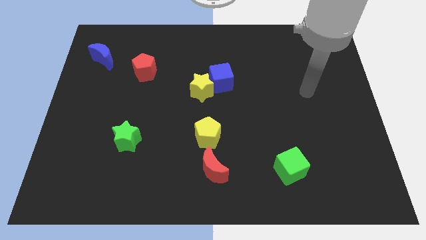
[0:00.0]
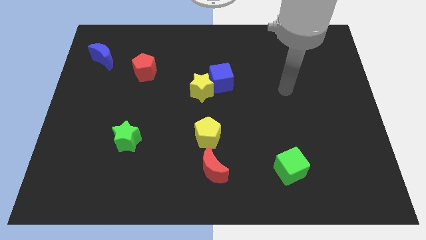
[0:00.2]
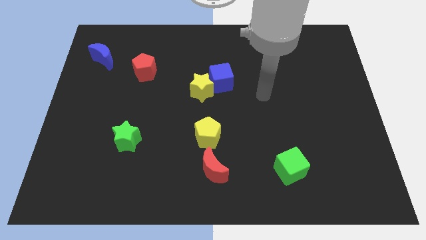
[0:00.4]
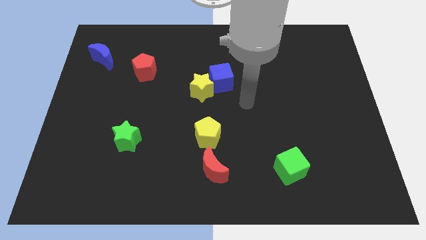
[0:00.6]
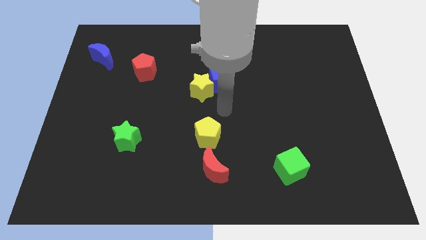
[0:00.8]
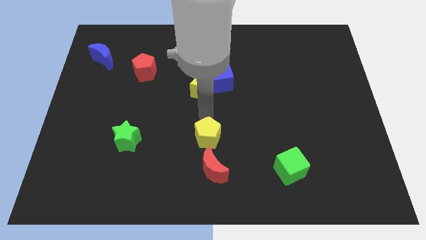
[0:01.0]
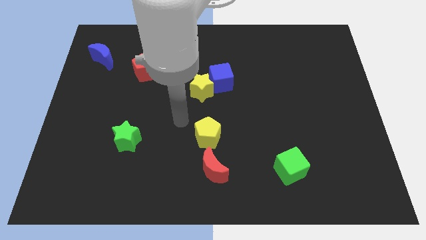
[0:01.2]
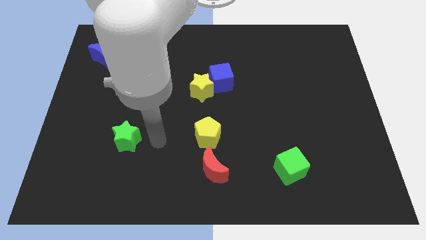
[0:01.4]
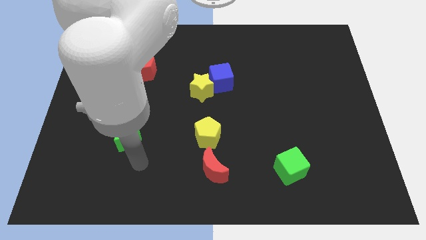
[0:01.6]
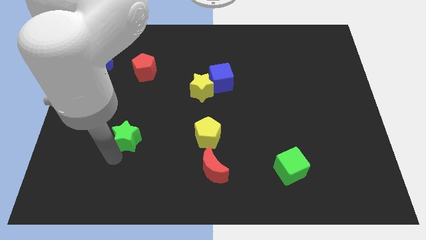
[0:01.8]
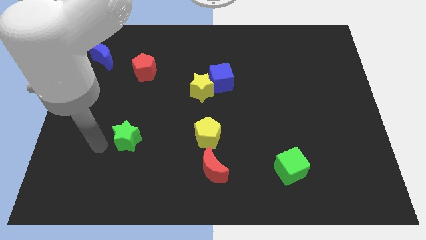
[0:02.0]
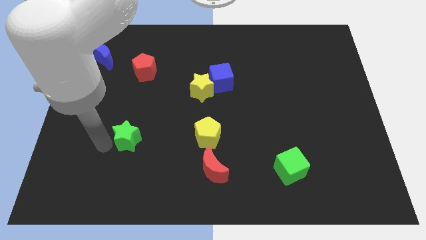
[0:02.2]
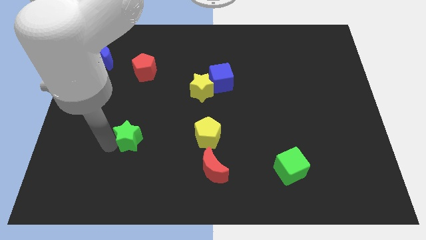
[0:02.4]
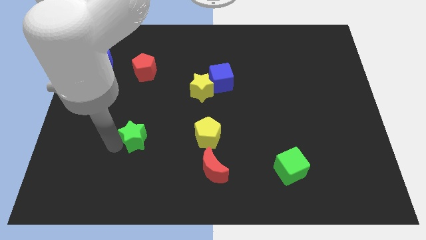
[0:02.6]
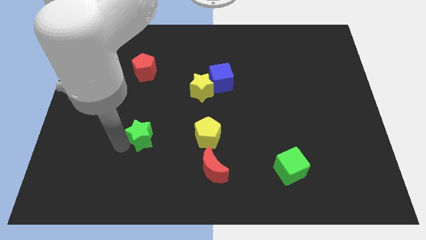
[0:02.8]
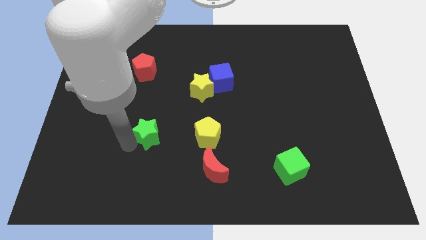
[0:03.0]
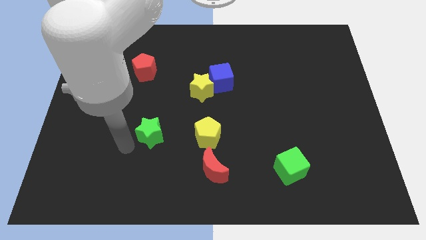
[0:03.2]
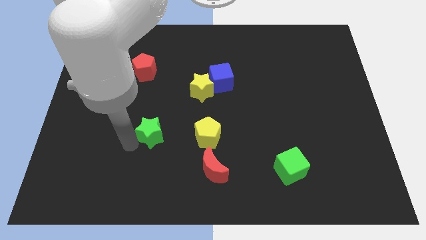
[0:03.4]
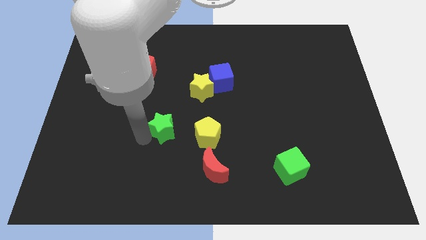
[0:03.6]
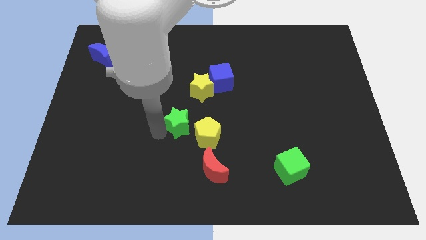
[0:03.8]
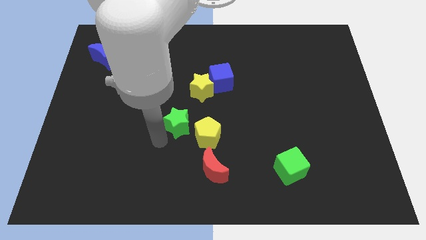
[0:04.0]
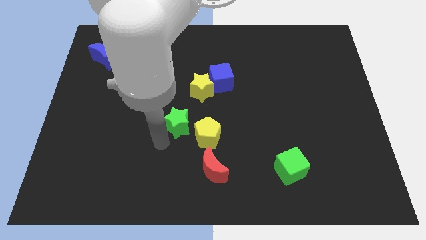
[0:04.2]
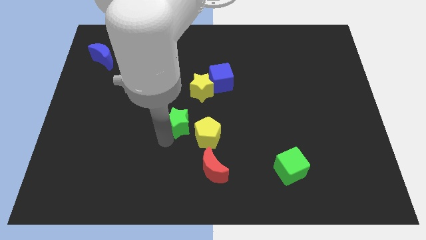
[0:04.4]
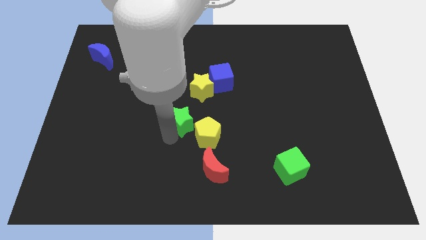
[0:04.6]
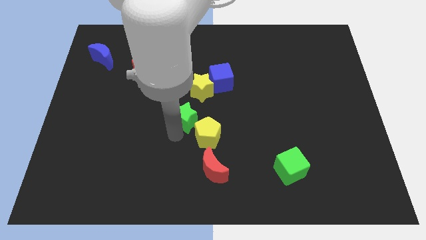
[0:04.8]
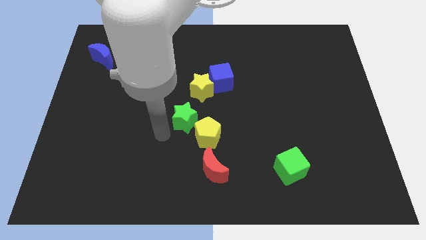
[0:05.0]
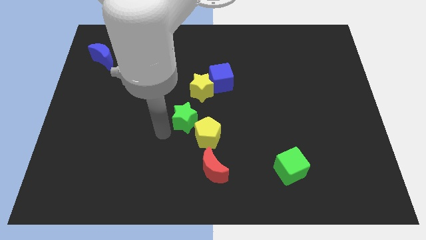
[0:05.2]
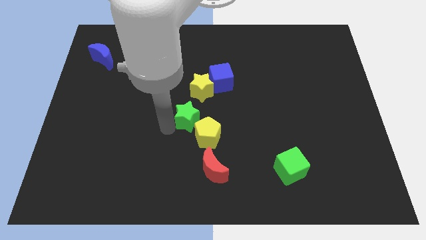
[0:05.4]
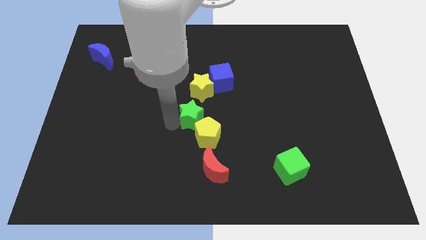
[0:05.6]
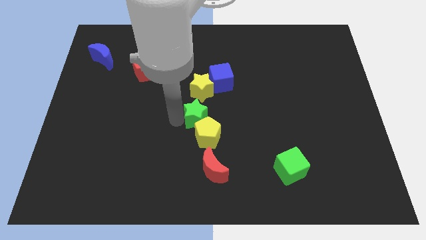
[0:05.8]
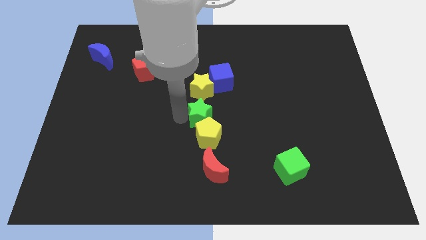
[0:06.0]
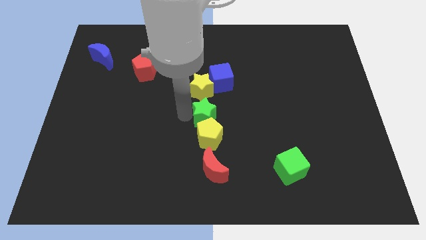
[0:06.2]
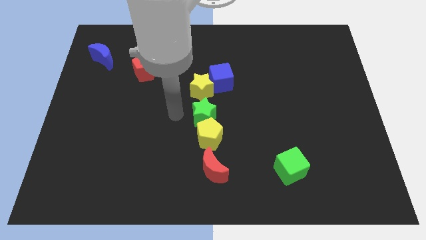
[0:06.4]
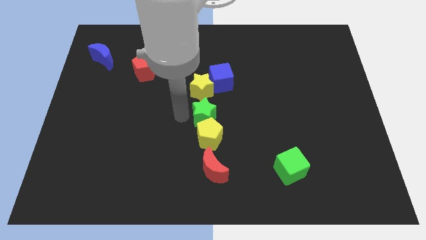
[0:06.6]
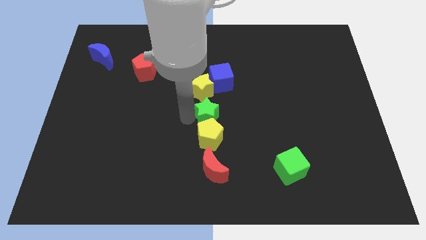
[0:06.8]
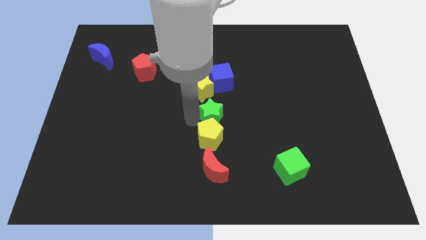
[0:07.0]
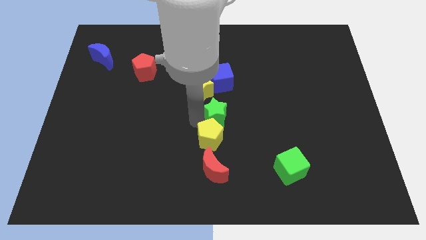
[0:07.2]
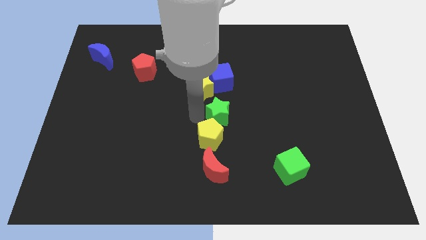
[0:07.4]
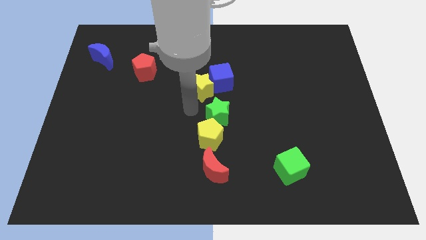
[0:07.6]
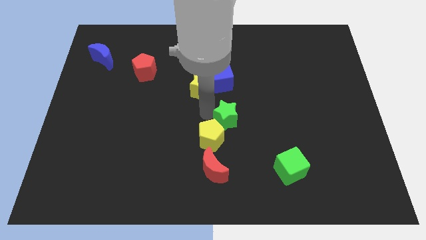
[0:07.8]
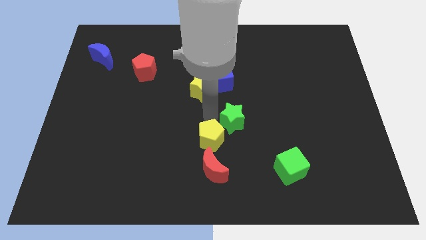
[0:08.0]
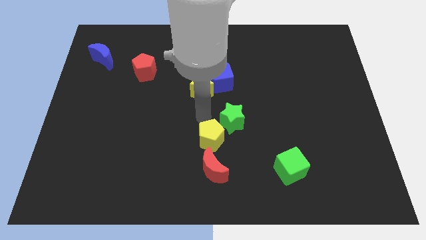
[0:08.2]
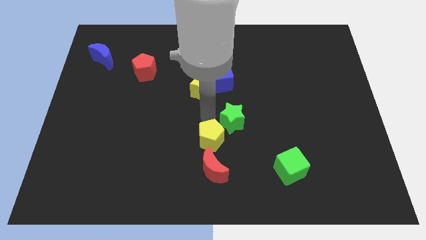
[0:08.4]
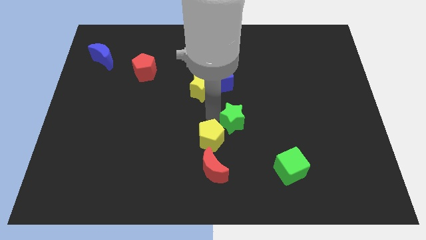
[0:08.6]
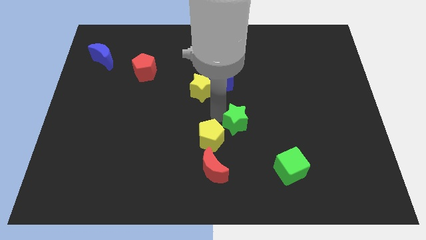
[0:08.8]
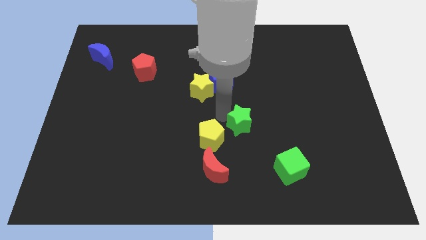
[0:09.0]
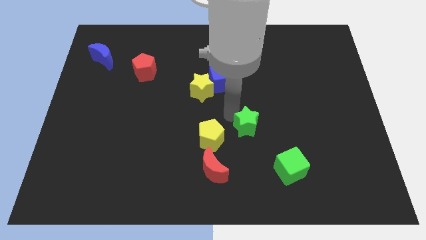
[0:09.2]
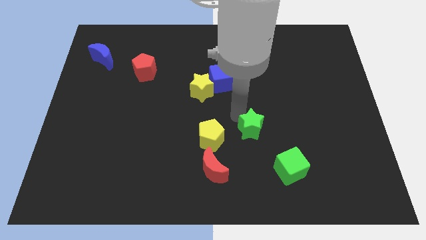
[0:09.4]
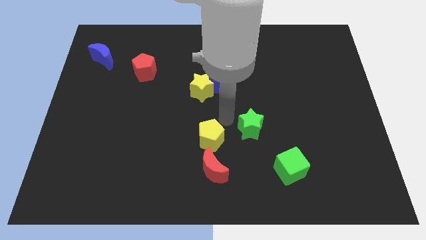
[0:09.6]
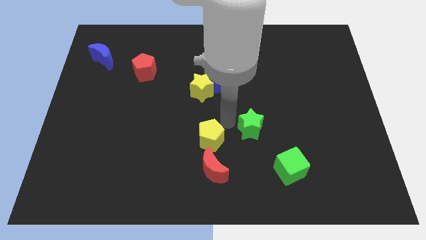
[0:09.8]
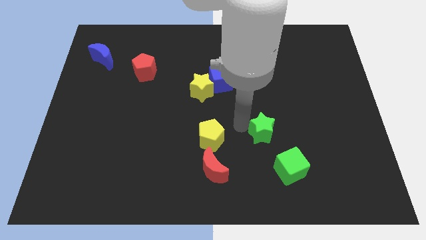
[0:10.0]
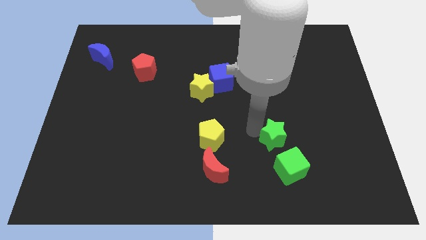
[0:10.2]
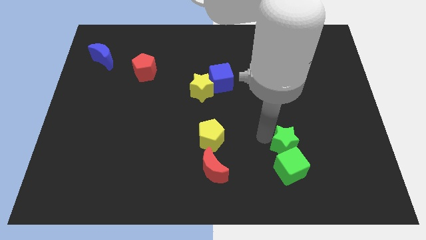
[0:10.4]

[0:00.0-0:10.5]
put the green star to the top right of the green cube

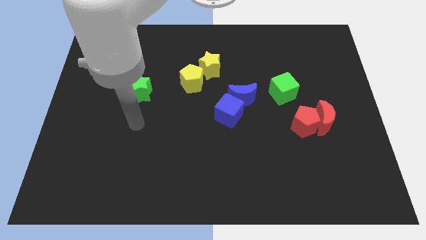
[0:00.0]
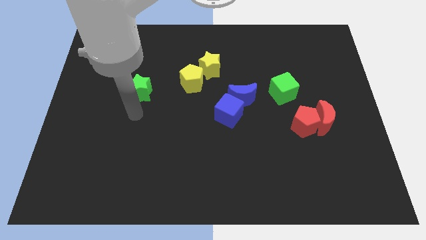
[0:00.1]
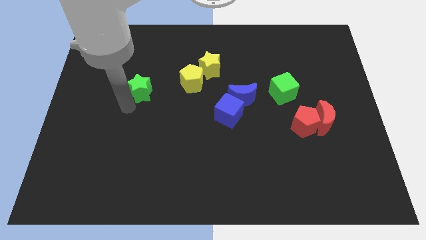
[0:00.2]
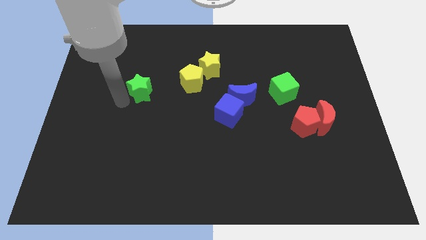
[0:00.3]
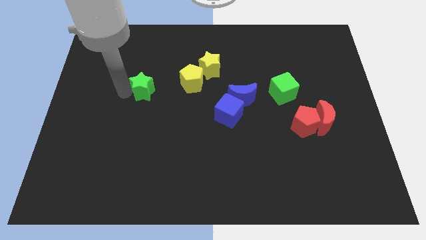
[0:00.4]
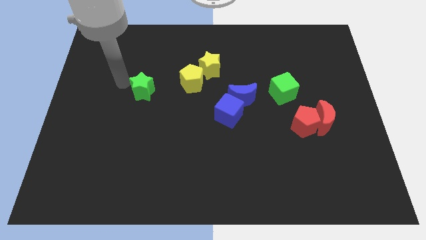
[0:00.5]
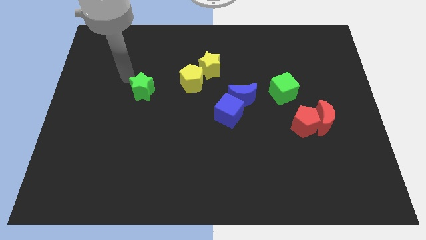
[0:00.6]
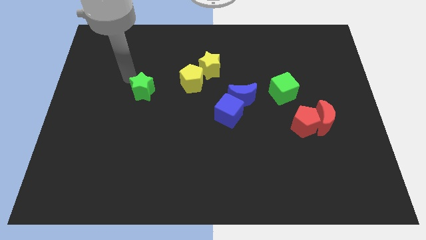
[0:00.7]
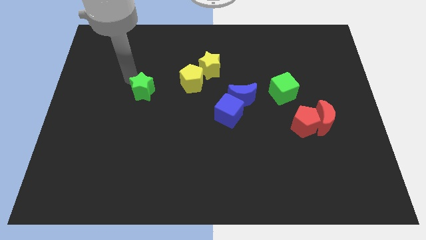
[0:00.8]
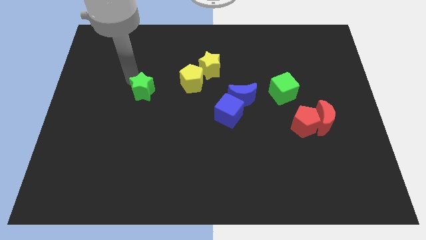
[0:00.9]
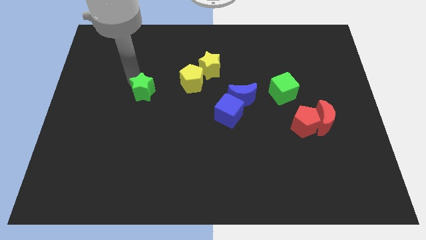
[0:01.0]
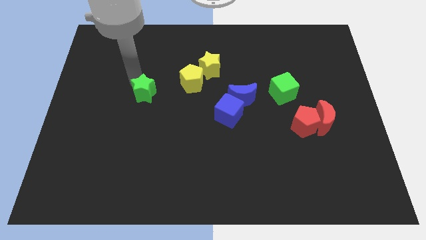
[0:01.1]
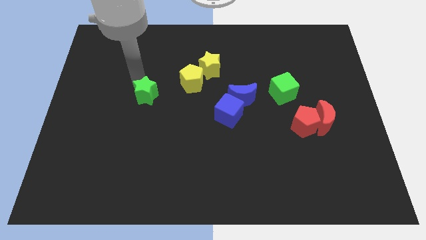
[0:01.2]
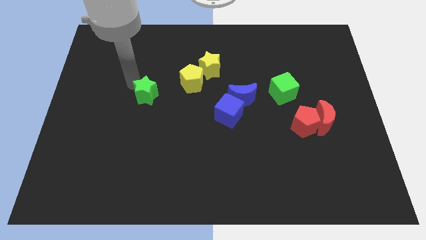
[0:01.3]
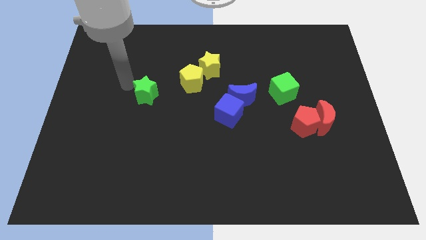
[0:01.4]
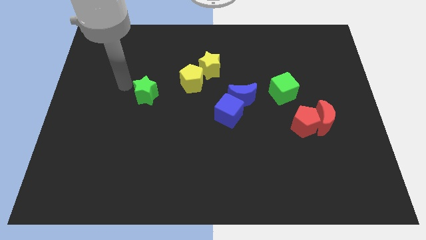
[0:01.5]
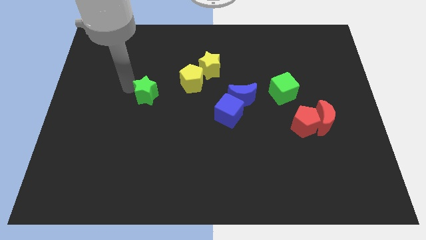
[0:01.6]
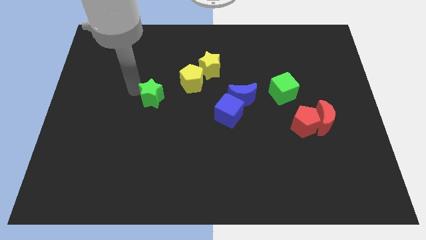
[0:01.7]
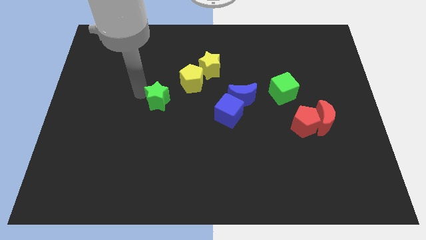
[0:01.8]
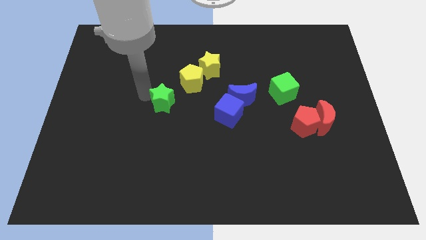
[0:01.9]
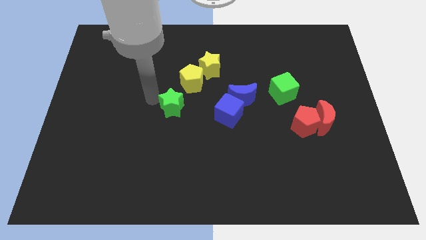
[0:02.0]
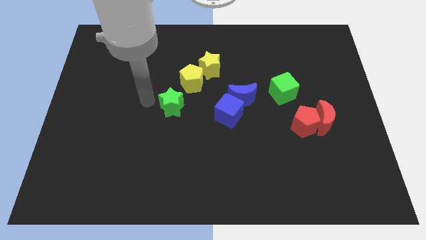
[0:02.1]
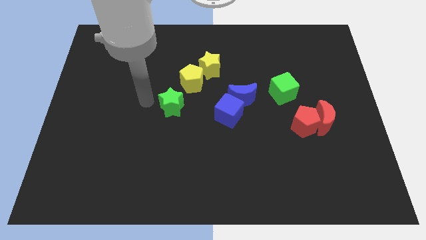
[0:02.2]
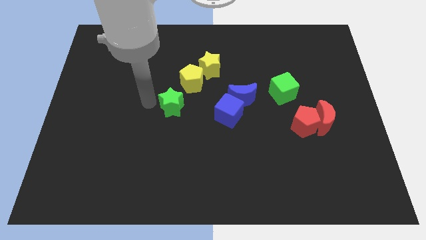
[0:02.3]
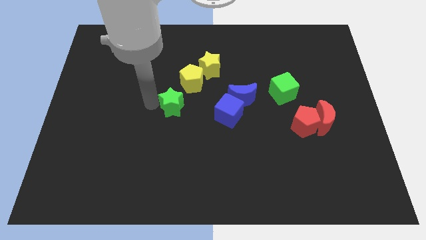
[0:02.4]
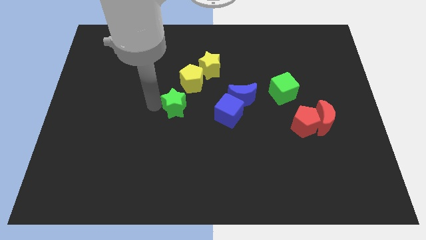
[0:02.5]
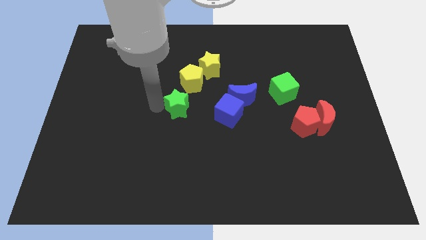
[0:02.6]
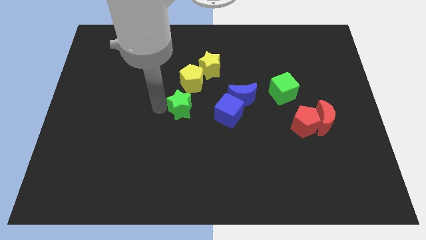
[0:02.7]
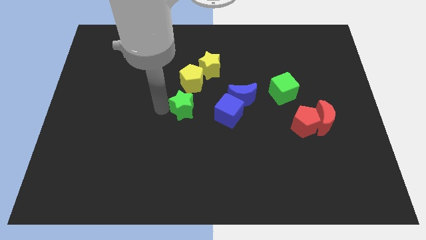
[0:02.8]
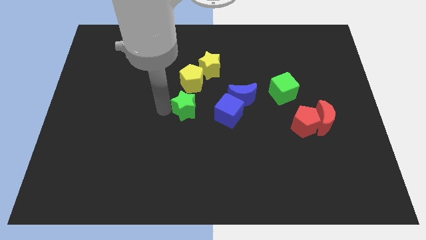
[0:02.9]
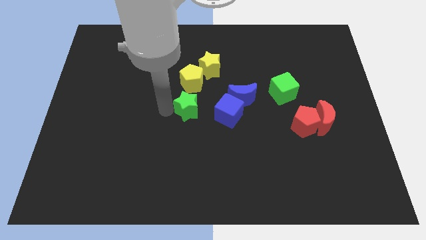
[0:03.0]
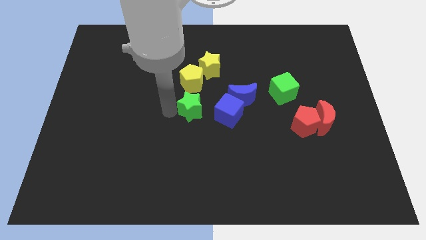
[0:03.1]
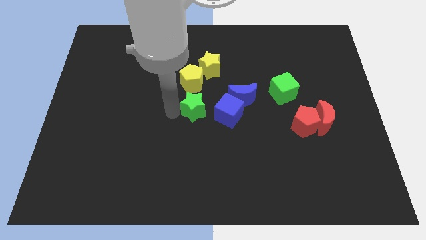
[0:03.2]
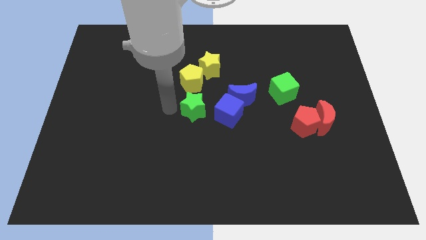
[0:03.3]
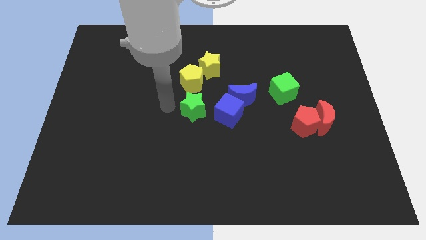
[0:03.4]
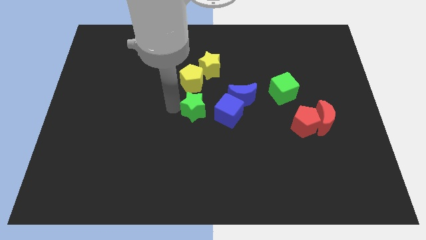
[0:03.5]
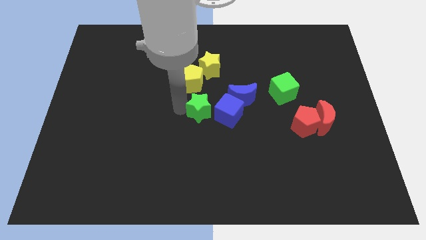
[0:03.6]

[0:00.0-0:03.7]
slide the green star diagonally down and to the left of the blue moon
